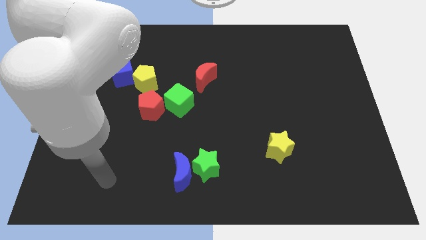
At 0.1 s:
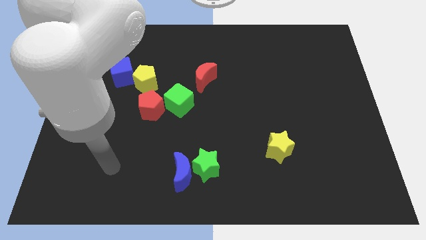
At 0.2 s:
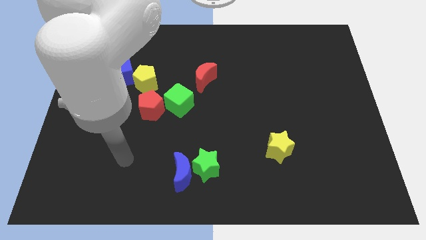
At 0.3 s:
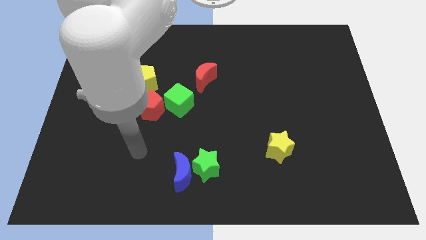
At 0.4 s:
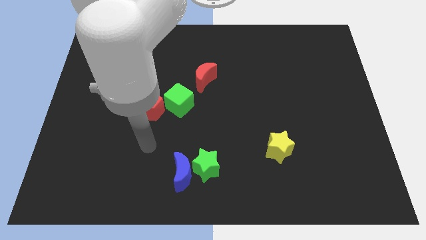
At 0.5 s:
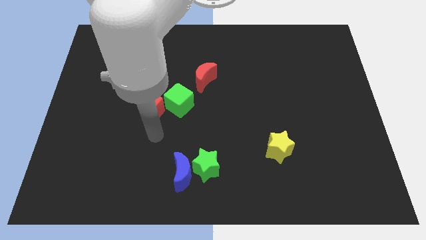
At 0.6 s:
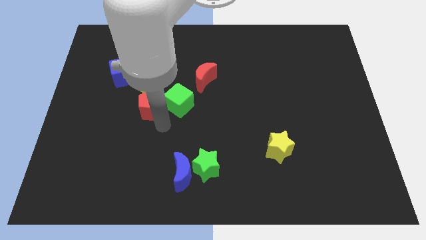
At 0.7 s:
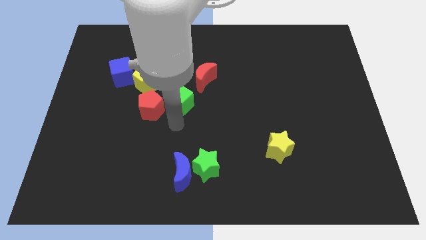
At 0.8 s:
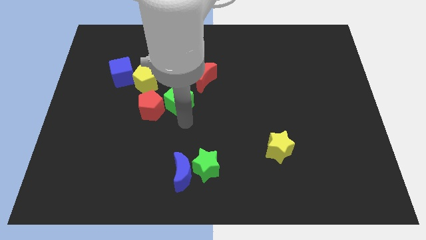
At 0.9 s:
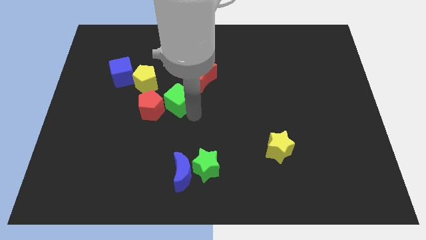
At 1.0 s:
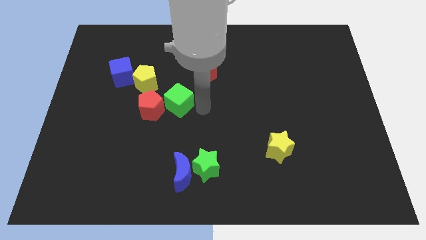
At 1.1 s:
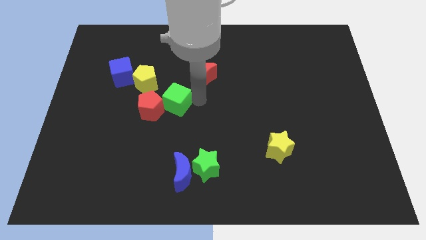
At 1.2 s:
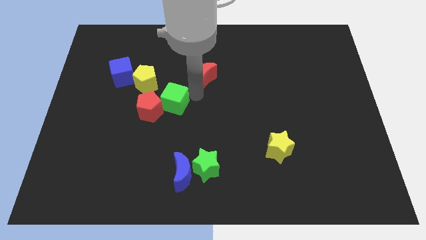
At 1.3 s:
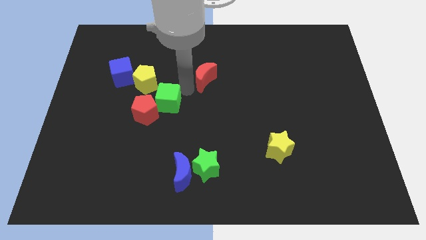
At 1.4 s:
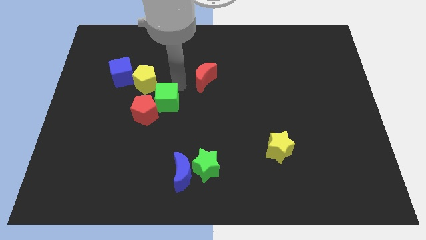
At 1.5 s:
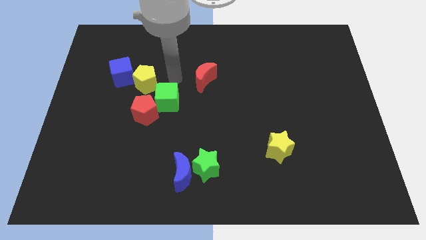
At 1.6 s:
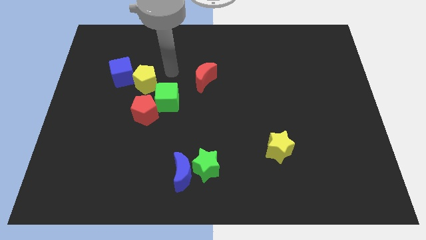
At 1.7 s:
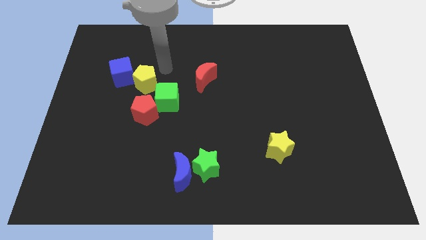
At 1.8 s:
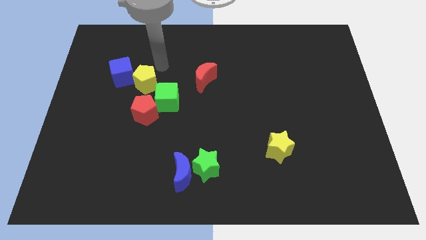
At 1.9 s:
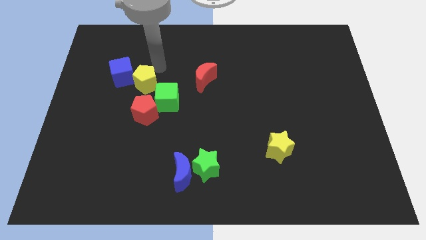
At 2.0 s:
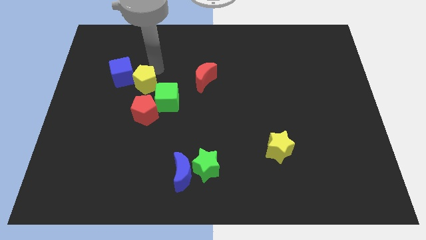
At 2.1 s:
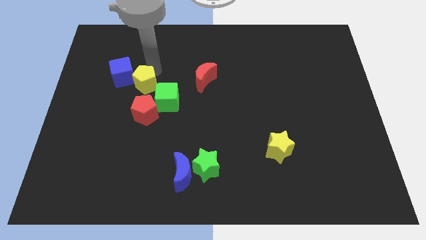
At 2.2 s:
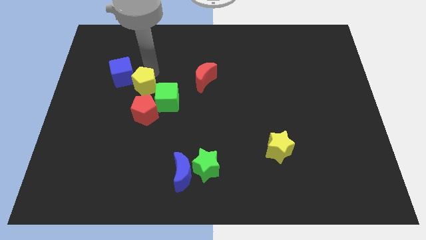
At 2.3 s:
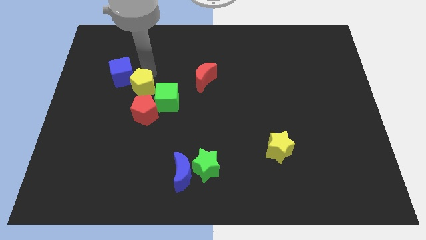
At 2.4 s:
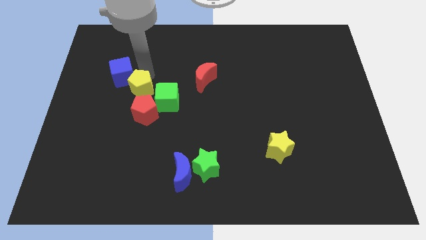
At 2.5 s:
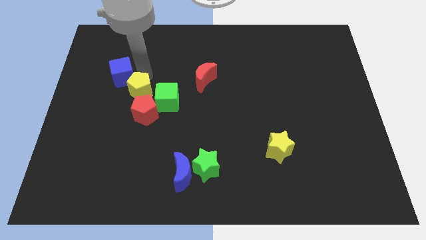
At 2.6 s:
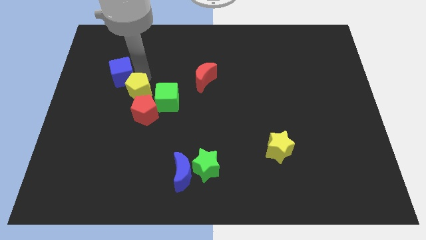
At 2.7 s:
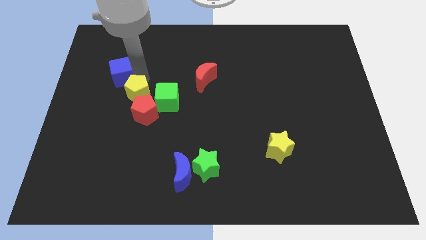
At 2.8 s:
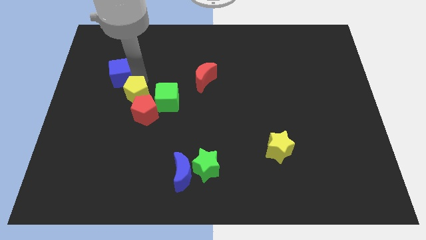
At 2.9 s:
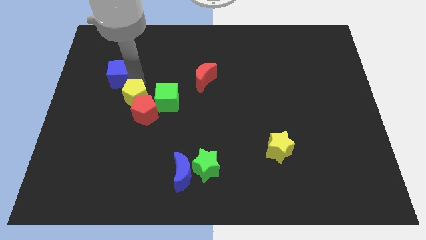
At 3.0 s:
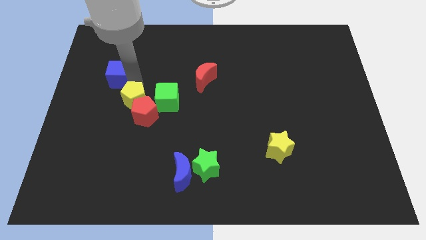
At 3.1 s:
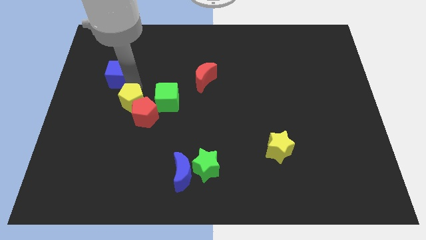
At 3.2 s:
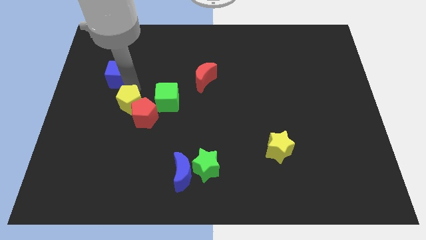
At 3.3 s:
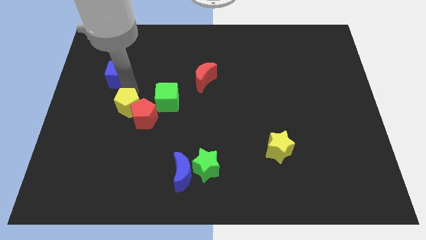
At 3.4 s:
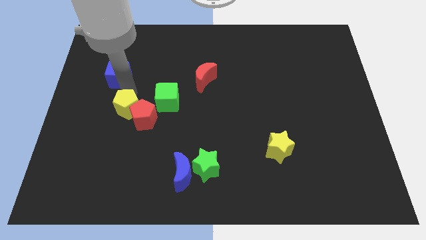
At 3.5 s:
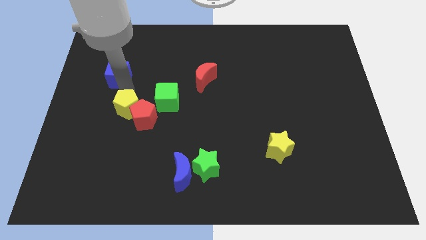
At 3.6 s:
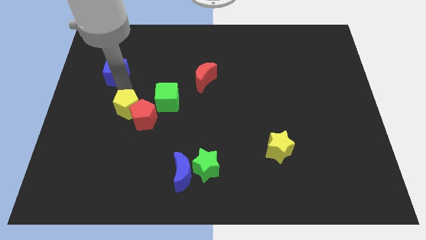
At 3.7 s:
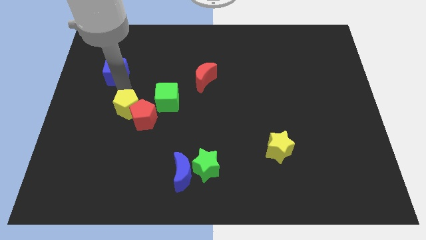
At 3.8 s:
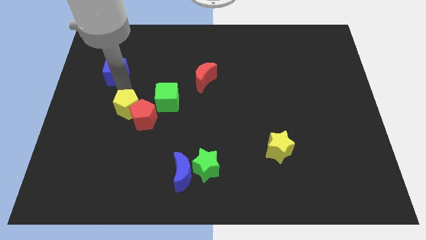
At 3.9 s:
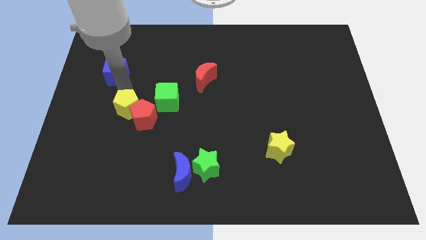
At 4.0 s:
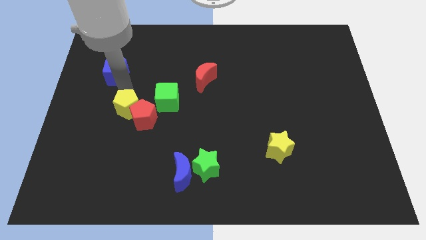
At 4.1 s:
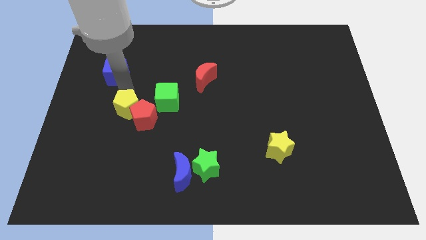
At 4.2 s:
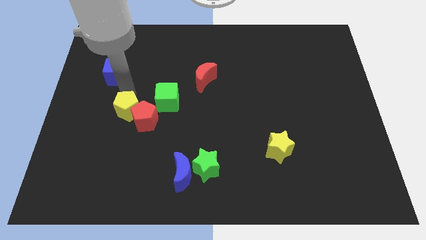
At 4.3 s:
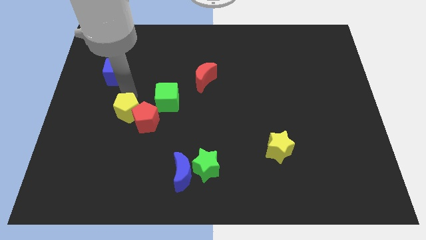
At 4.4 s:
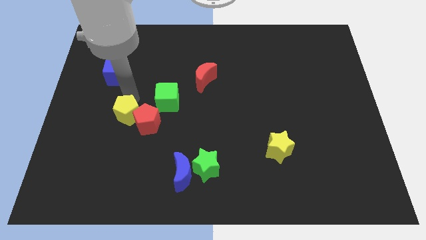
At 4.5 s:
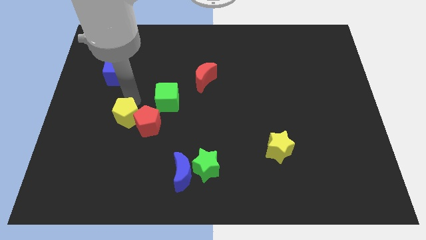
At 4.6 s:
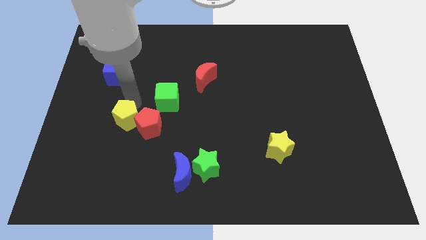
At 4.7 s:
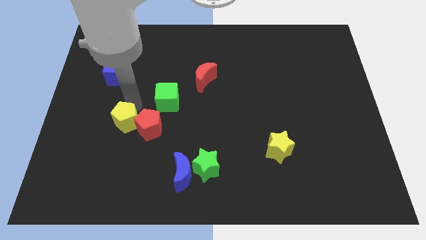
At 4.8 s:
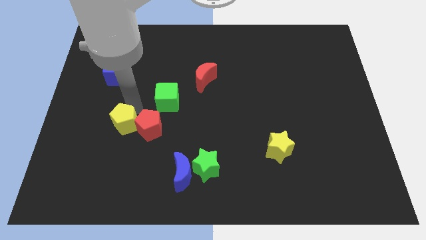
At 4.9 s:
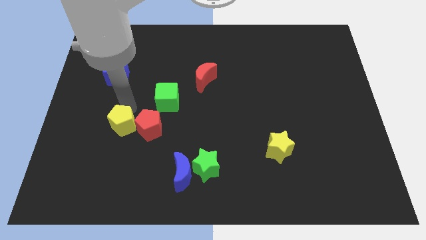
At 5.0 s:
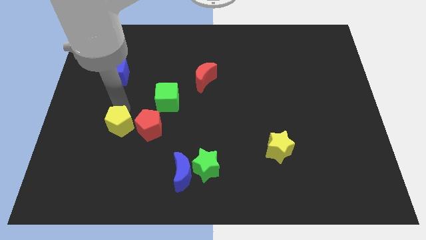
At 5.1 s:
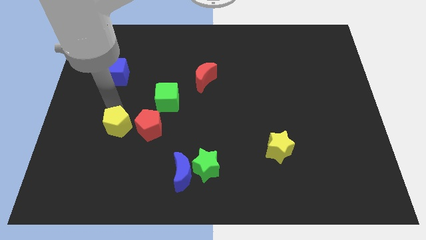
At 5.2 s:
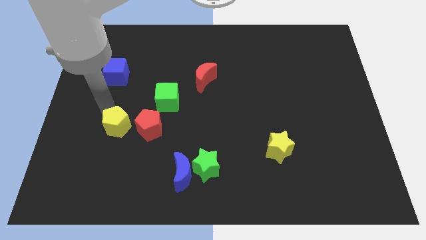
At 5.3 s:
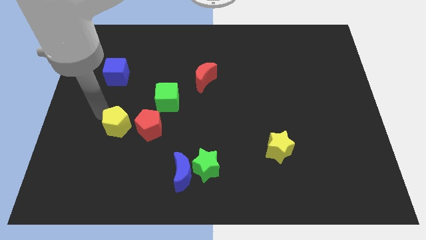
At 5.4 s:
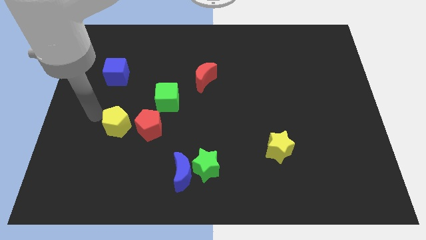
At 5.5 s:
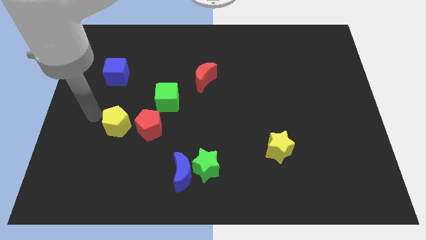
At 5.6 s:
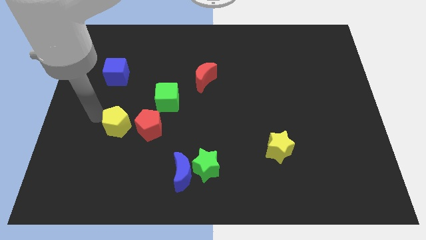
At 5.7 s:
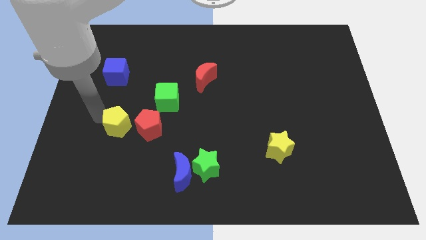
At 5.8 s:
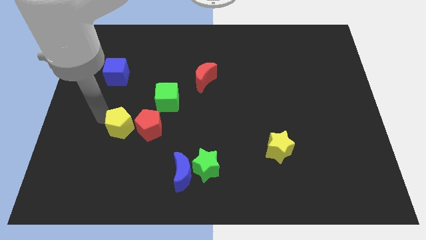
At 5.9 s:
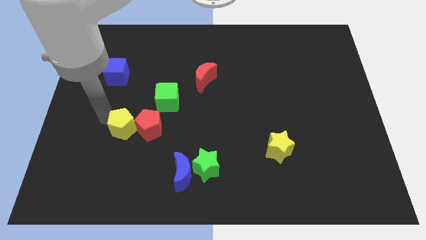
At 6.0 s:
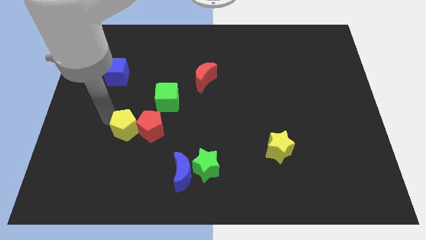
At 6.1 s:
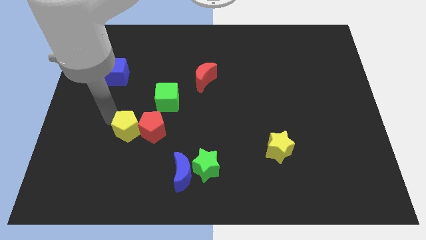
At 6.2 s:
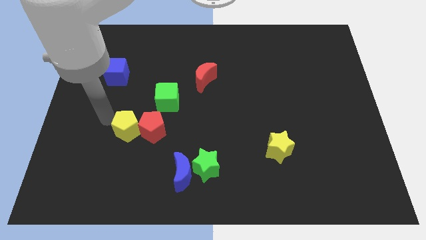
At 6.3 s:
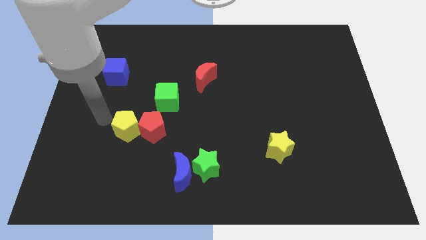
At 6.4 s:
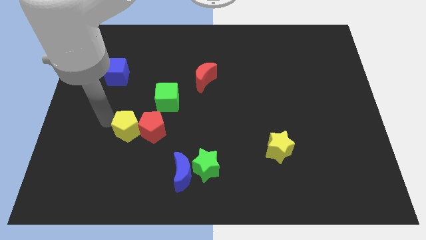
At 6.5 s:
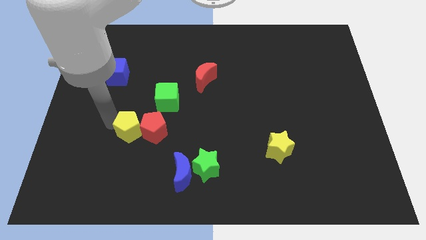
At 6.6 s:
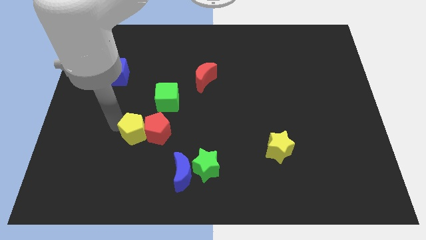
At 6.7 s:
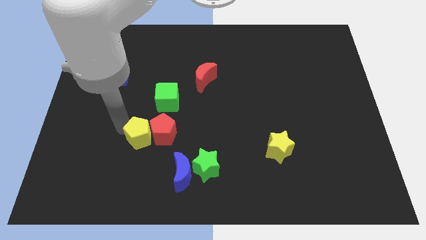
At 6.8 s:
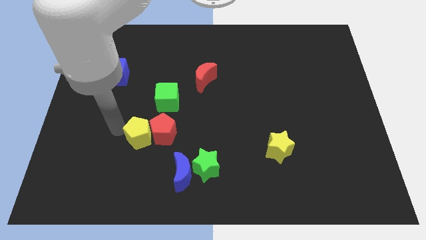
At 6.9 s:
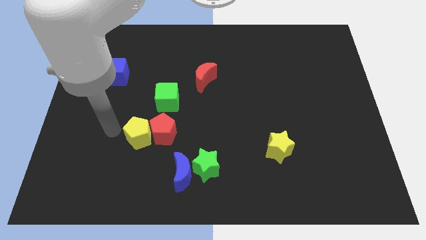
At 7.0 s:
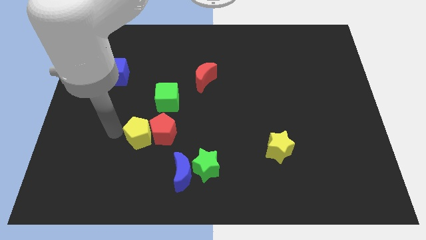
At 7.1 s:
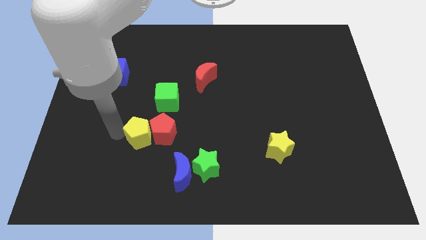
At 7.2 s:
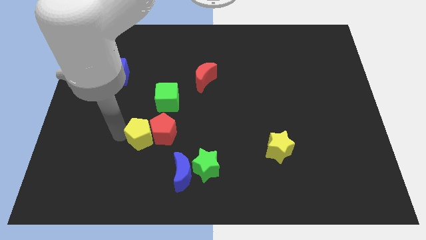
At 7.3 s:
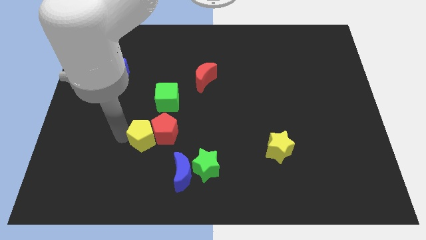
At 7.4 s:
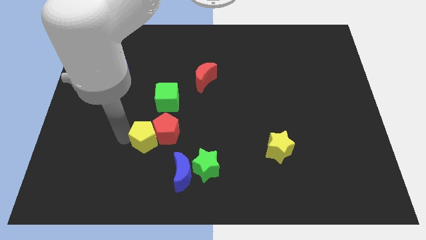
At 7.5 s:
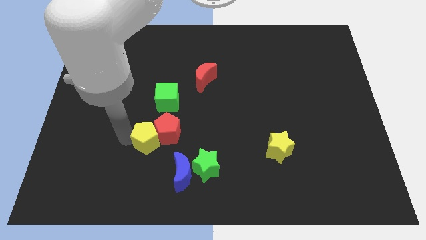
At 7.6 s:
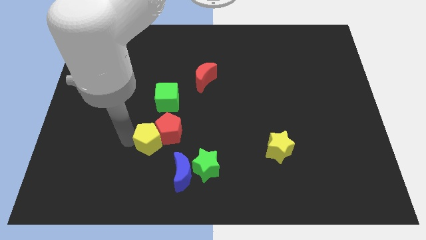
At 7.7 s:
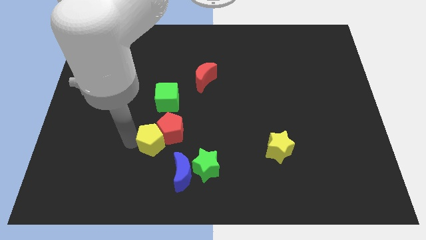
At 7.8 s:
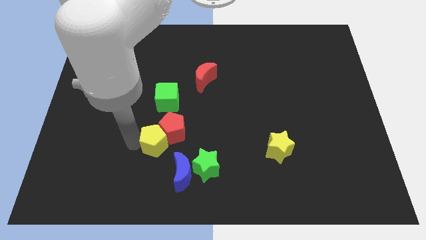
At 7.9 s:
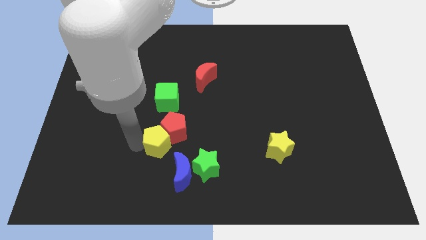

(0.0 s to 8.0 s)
push the yellow pentagon diagonally up and to the left of the green star

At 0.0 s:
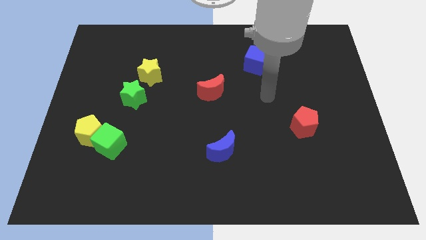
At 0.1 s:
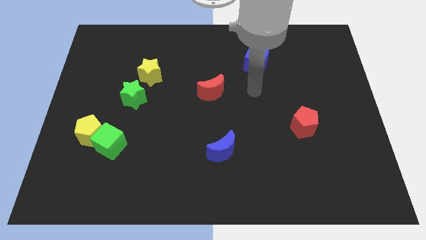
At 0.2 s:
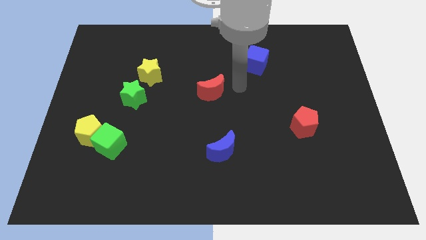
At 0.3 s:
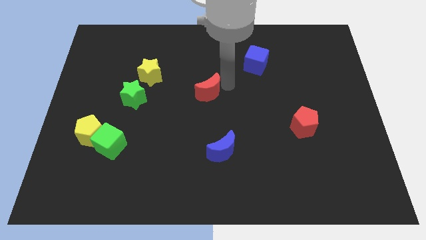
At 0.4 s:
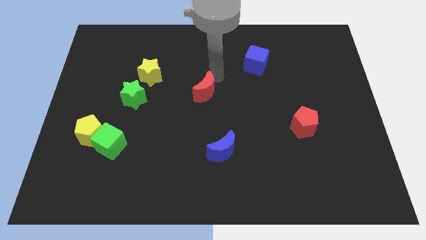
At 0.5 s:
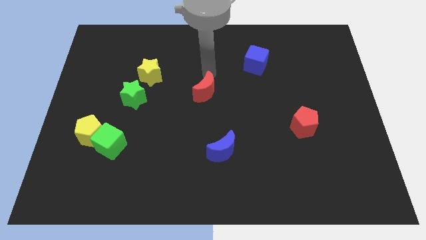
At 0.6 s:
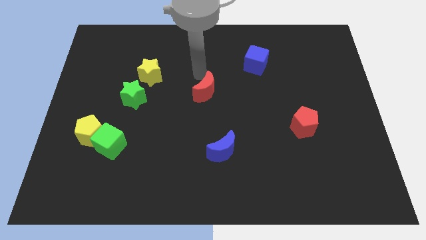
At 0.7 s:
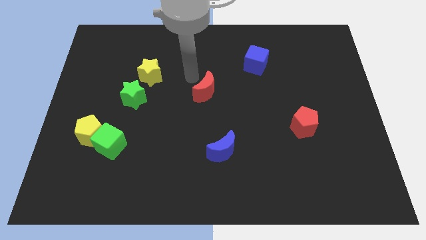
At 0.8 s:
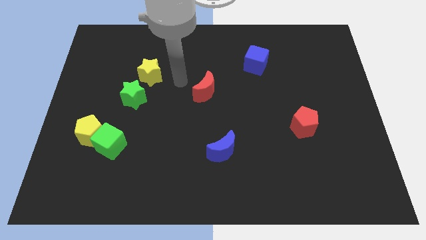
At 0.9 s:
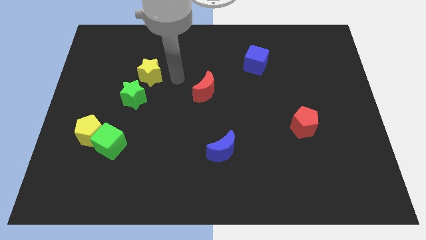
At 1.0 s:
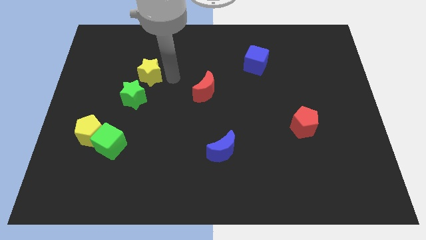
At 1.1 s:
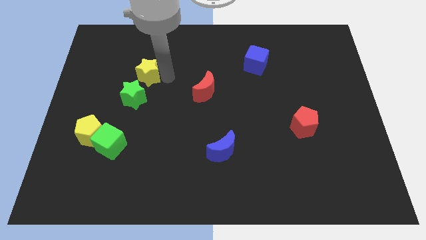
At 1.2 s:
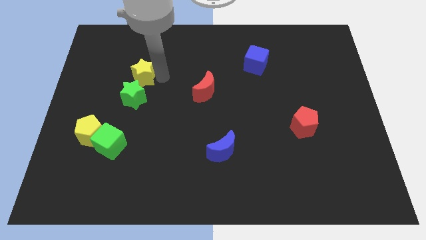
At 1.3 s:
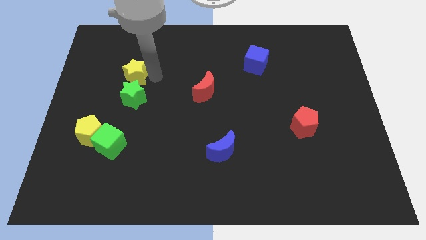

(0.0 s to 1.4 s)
push the yellow star to the top left of the green star
